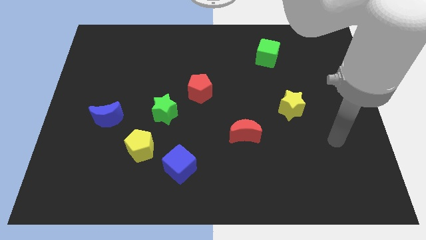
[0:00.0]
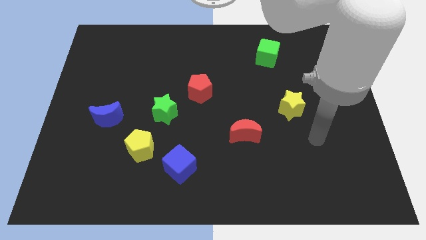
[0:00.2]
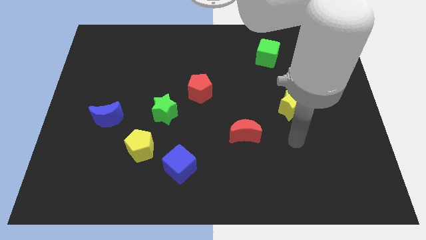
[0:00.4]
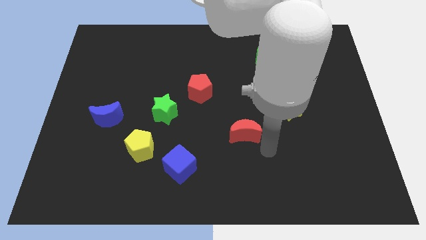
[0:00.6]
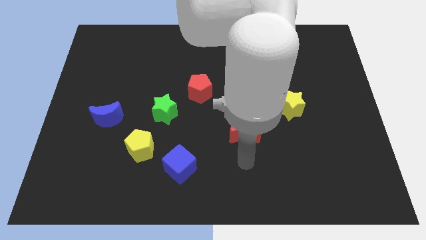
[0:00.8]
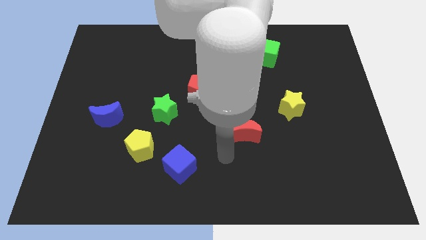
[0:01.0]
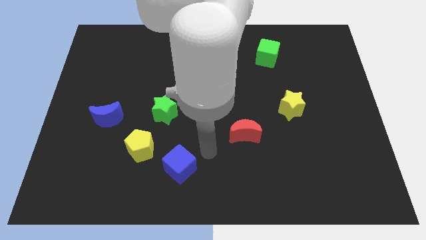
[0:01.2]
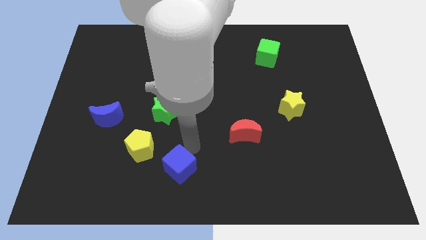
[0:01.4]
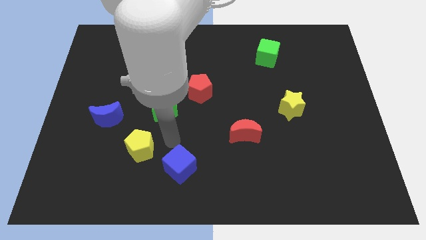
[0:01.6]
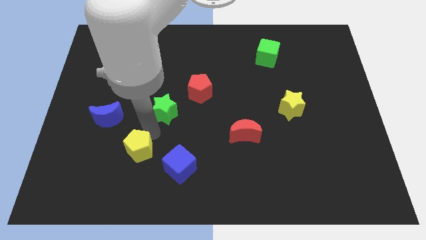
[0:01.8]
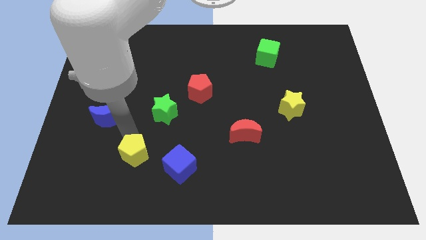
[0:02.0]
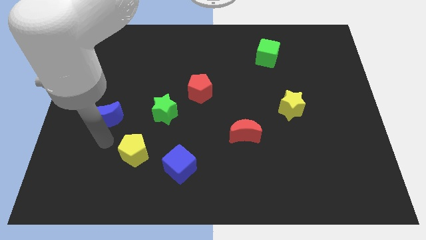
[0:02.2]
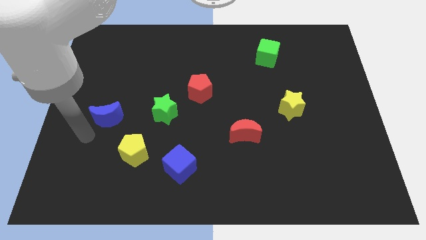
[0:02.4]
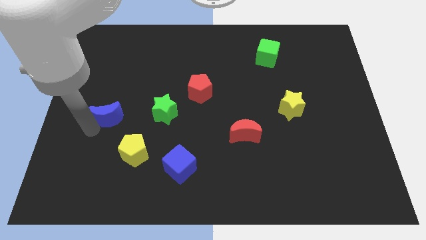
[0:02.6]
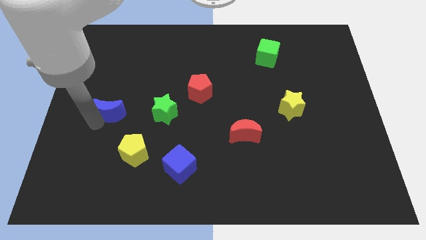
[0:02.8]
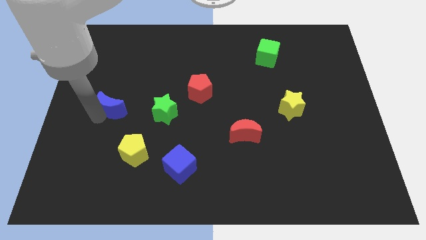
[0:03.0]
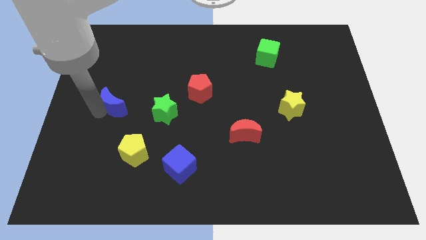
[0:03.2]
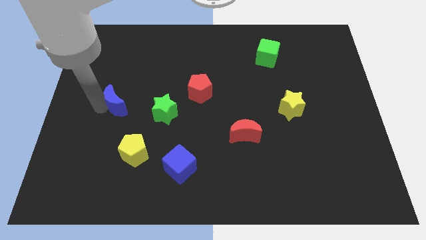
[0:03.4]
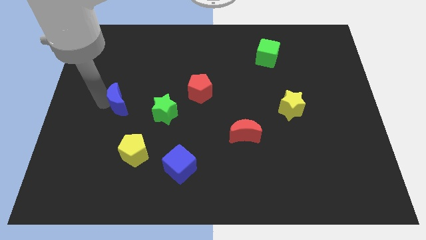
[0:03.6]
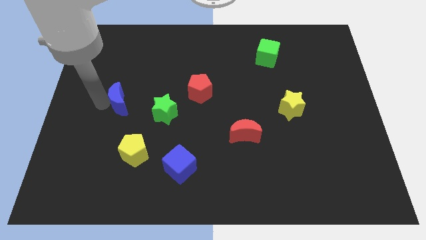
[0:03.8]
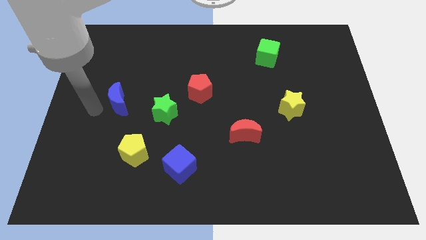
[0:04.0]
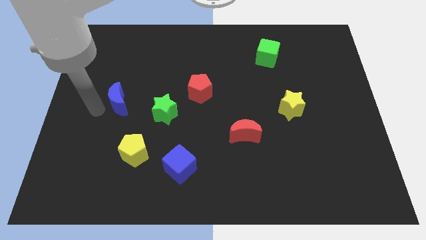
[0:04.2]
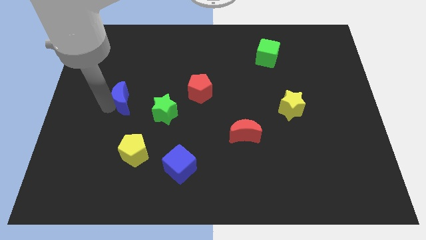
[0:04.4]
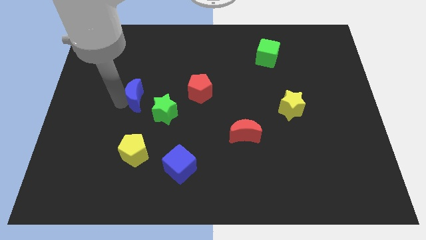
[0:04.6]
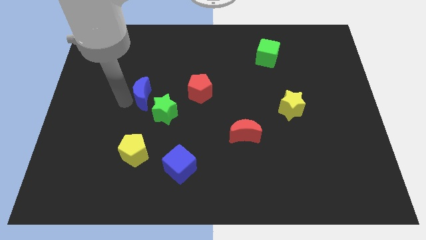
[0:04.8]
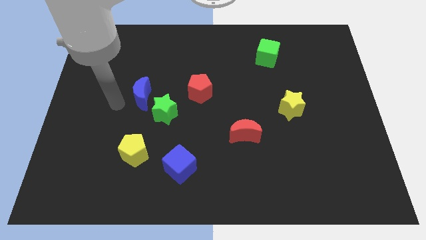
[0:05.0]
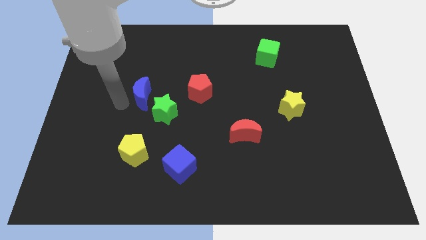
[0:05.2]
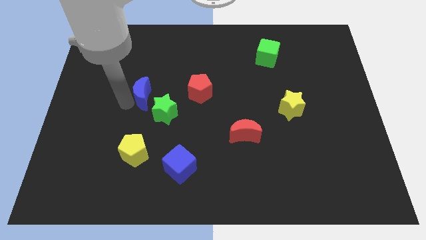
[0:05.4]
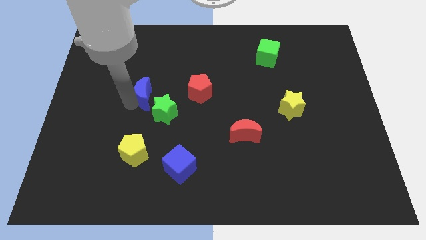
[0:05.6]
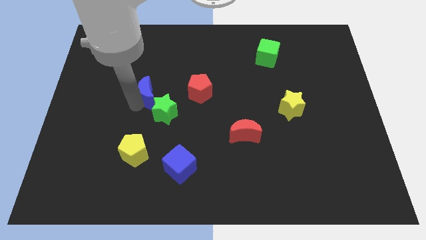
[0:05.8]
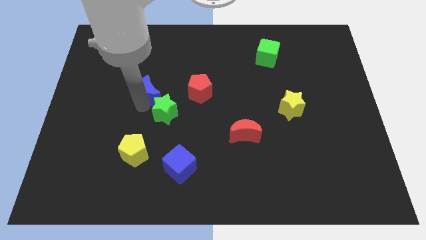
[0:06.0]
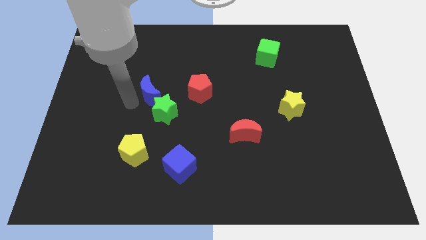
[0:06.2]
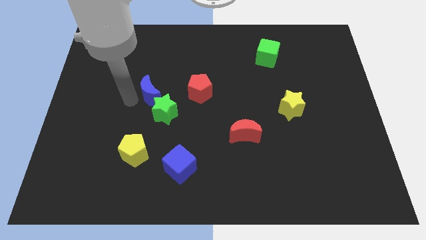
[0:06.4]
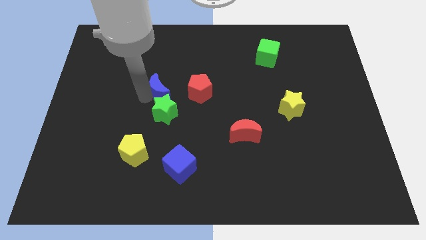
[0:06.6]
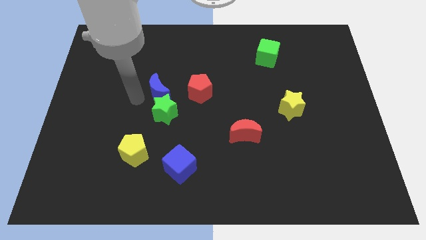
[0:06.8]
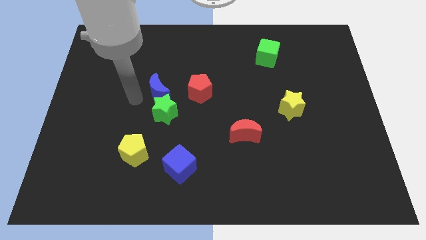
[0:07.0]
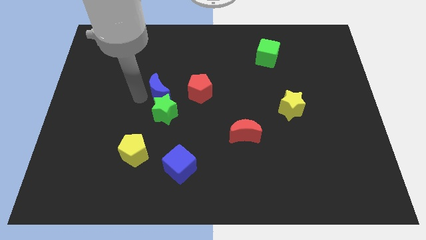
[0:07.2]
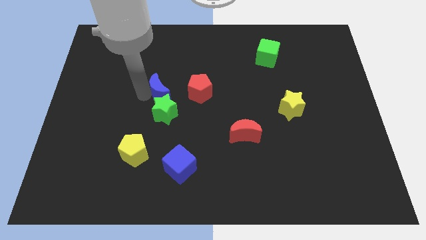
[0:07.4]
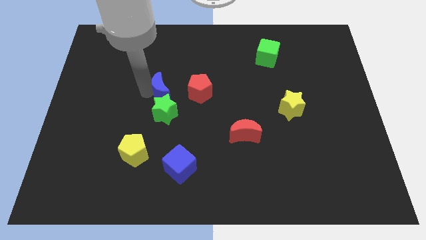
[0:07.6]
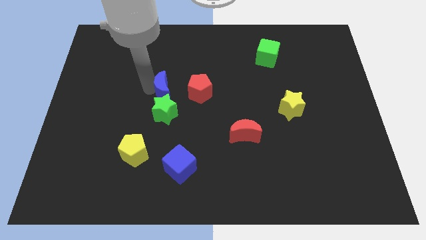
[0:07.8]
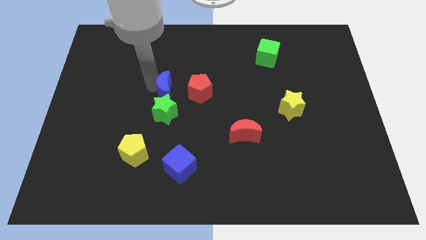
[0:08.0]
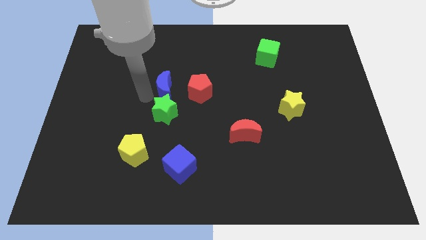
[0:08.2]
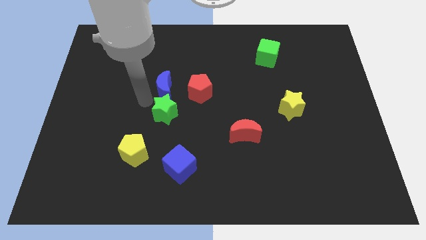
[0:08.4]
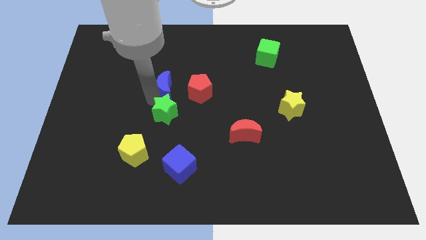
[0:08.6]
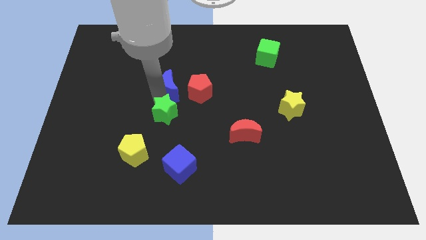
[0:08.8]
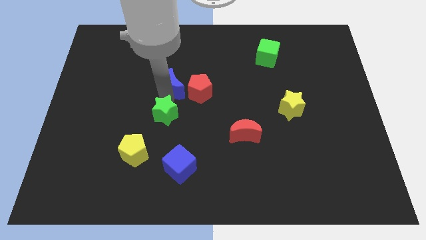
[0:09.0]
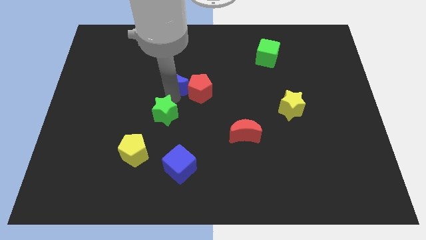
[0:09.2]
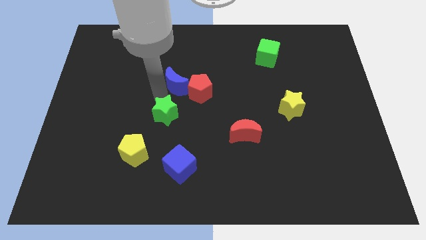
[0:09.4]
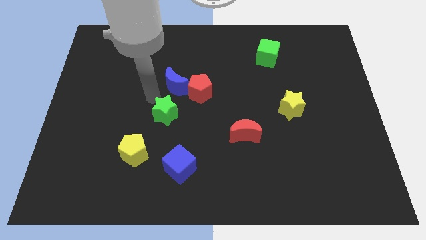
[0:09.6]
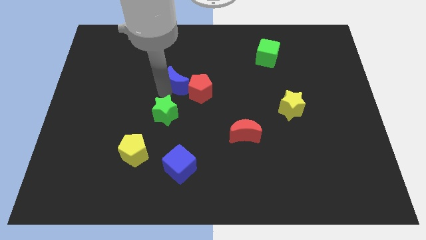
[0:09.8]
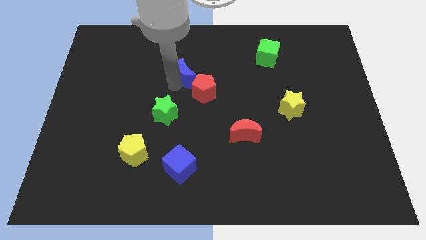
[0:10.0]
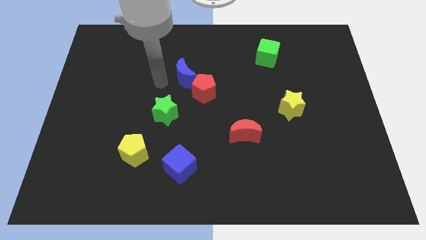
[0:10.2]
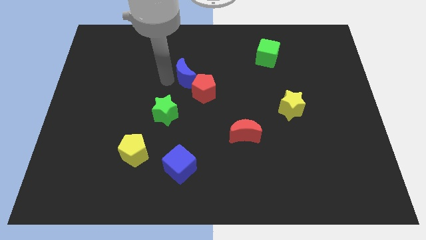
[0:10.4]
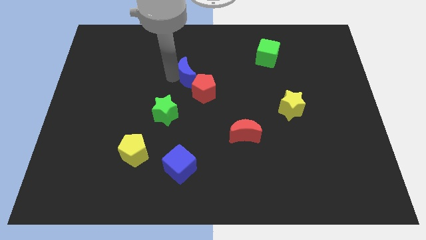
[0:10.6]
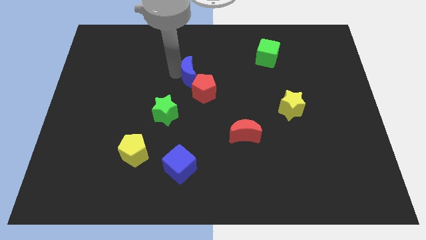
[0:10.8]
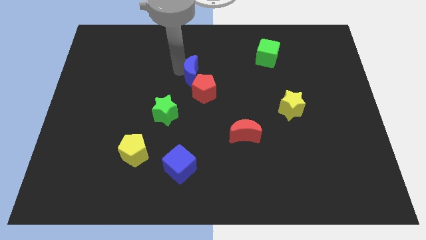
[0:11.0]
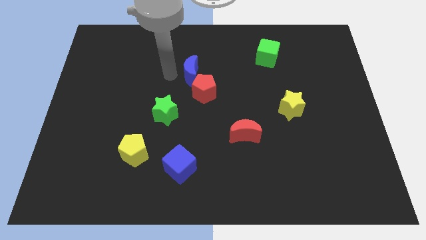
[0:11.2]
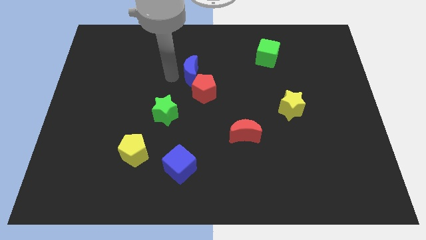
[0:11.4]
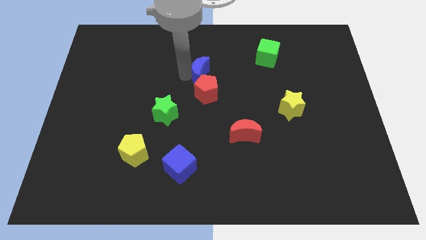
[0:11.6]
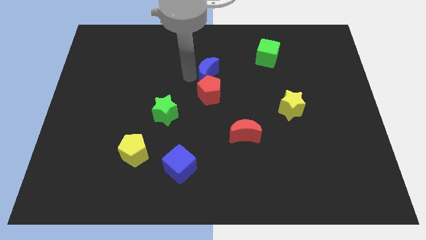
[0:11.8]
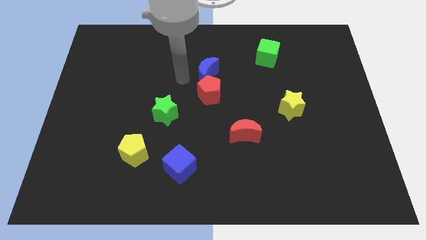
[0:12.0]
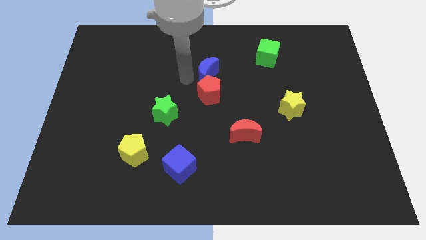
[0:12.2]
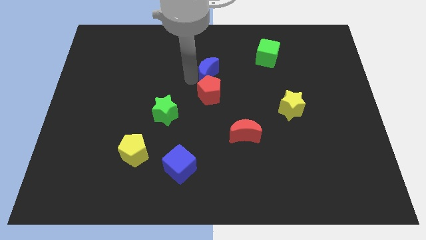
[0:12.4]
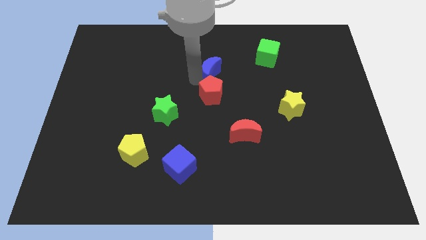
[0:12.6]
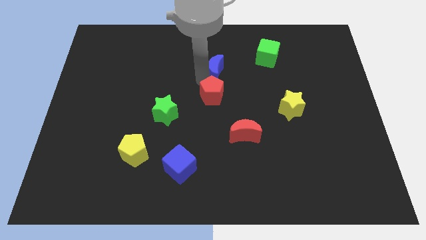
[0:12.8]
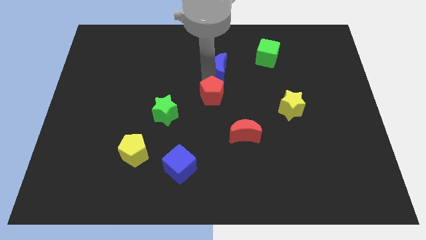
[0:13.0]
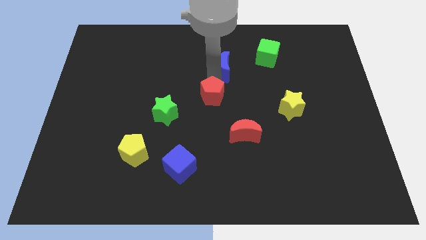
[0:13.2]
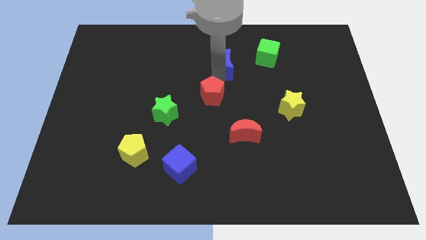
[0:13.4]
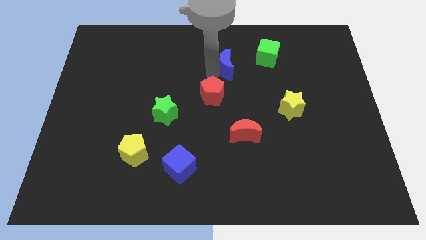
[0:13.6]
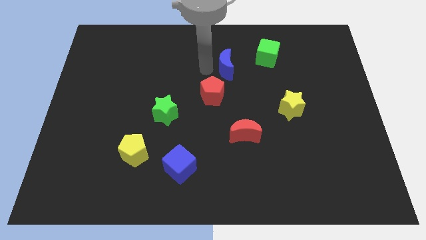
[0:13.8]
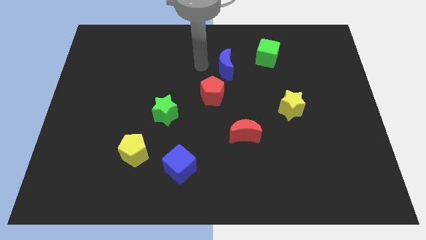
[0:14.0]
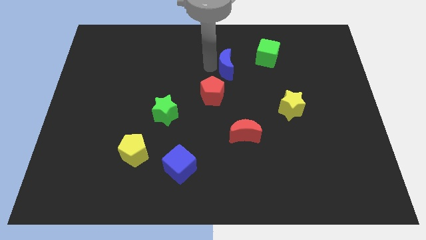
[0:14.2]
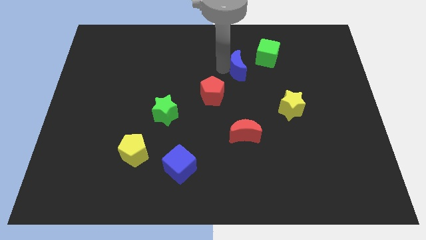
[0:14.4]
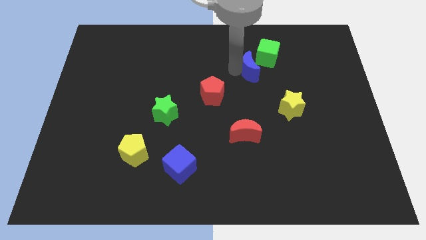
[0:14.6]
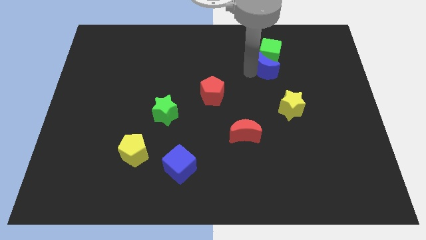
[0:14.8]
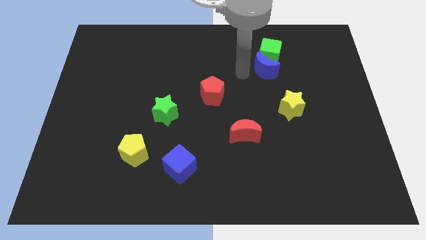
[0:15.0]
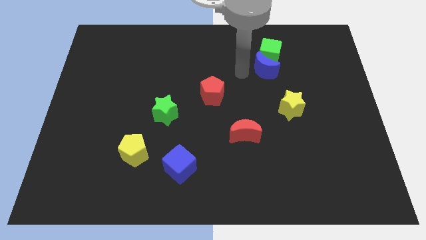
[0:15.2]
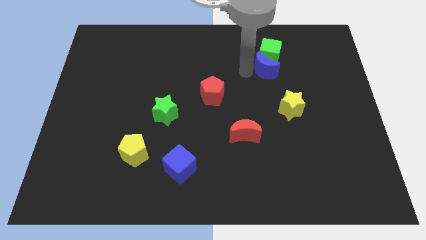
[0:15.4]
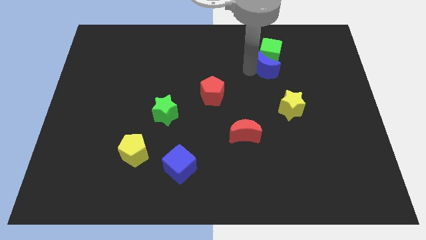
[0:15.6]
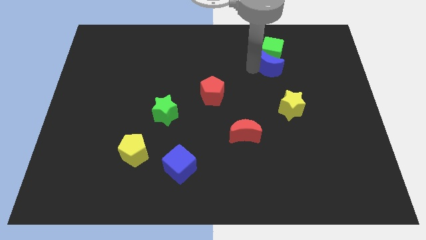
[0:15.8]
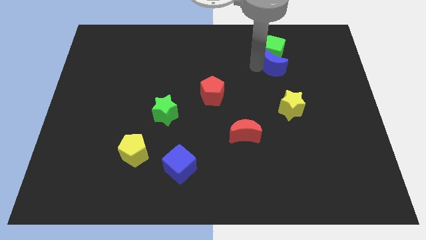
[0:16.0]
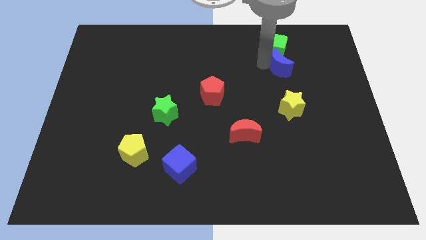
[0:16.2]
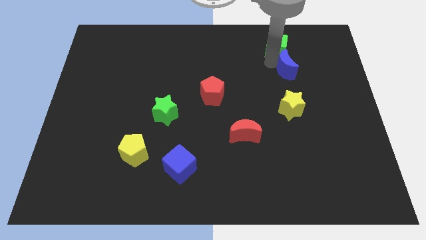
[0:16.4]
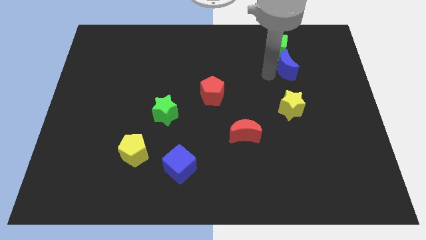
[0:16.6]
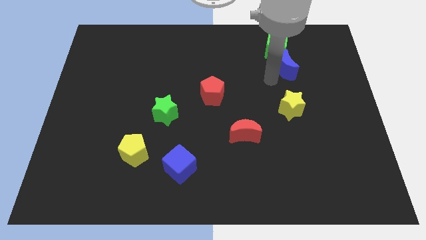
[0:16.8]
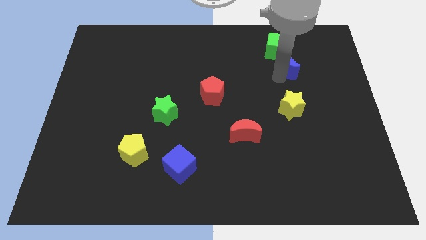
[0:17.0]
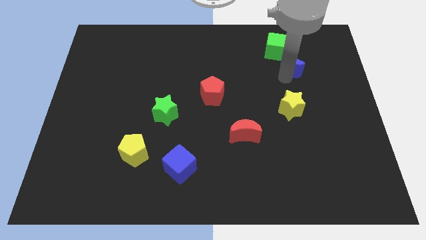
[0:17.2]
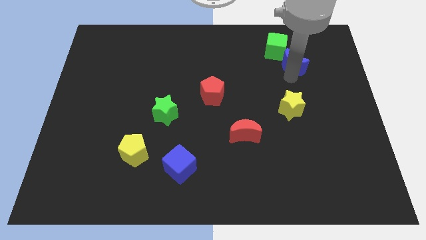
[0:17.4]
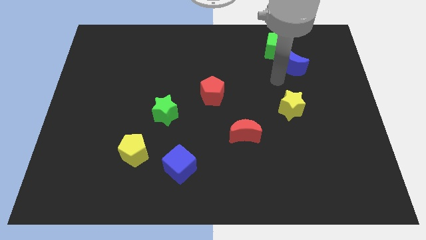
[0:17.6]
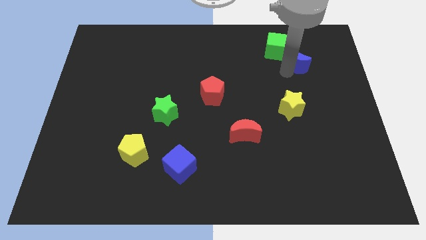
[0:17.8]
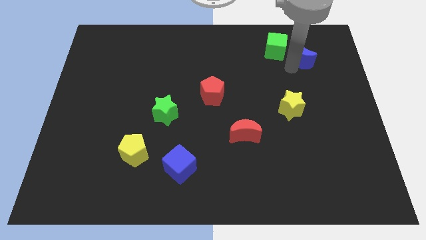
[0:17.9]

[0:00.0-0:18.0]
slide the blue moon right of the green cube
